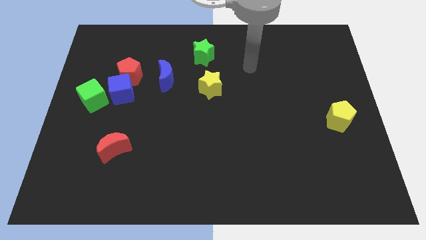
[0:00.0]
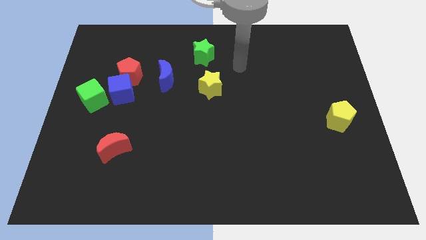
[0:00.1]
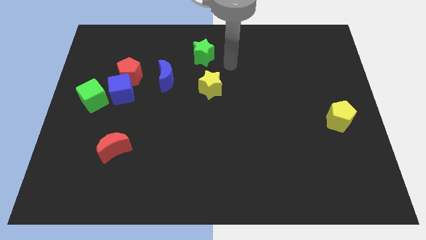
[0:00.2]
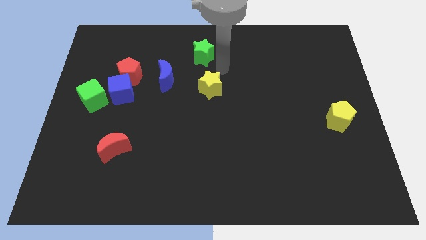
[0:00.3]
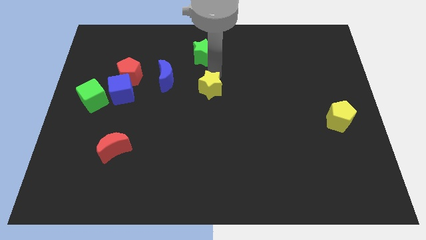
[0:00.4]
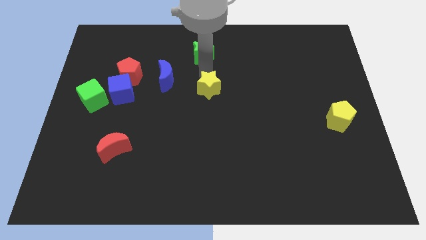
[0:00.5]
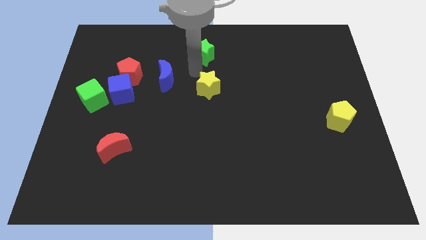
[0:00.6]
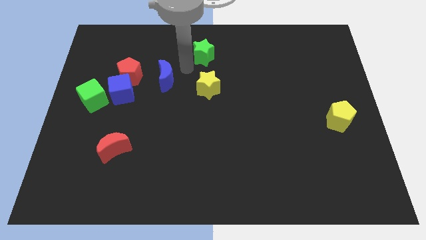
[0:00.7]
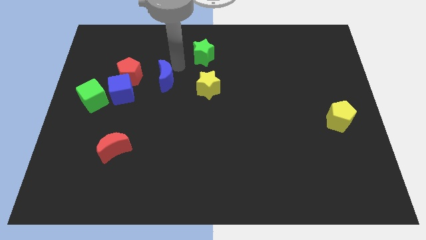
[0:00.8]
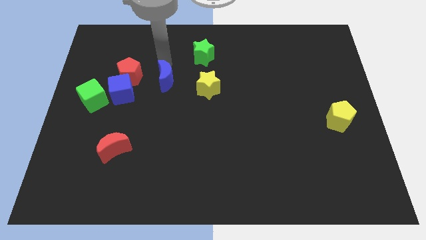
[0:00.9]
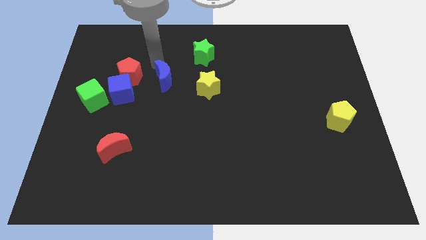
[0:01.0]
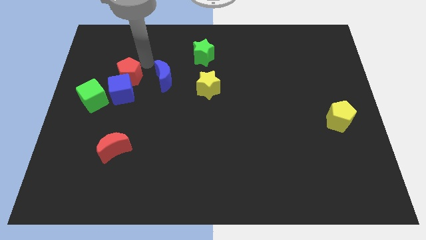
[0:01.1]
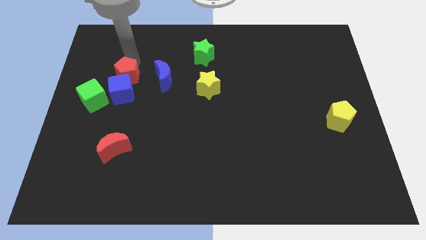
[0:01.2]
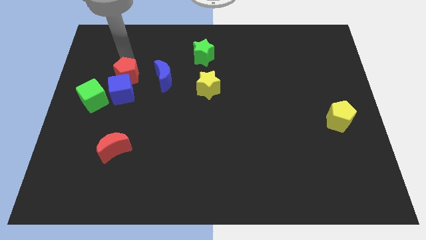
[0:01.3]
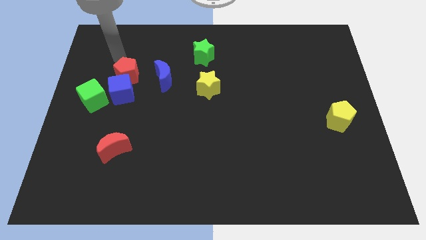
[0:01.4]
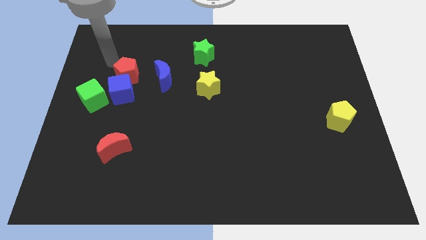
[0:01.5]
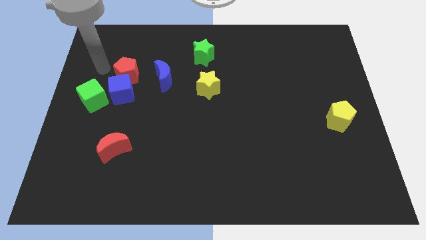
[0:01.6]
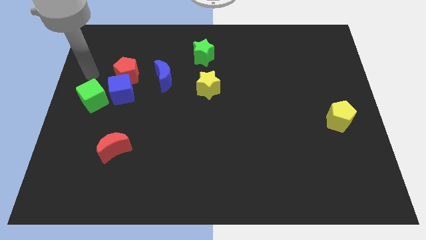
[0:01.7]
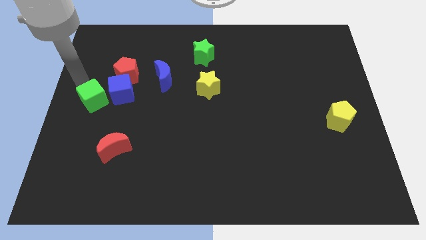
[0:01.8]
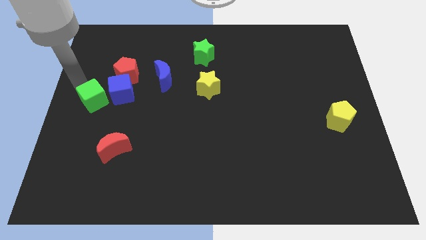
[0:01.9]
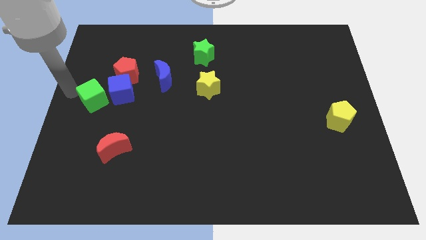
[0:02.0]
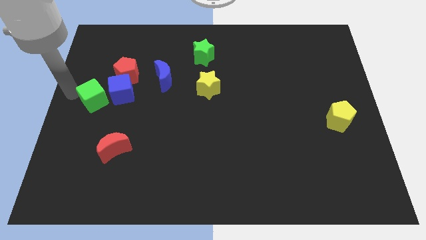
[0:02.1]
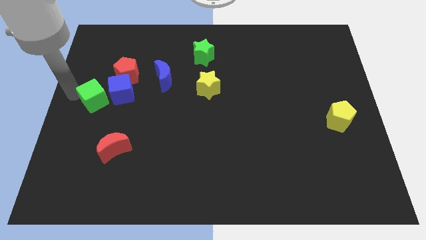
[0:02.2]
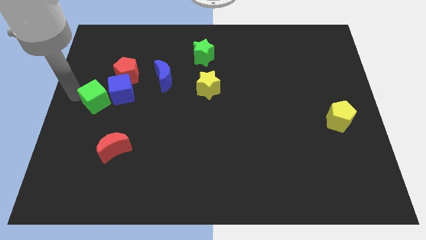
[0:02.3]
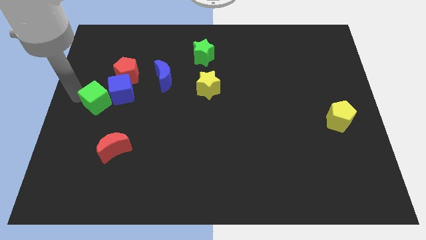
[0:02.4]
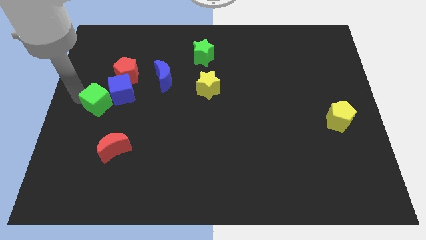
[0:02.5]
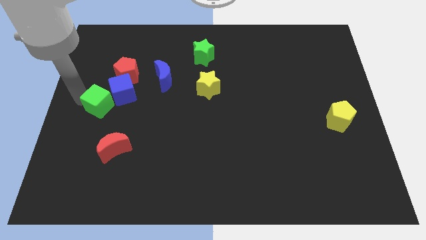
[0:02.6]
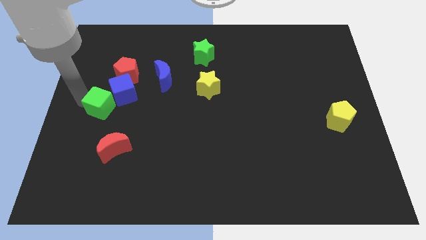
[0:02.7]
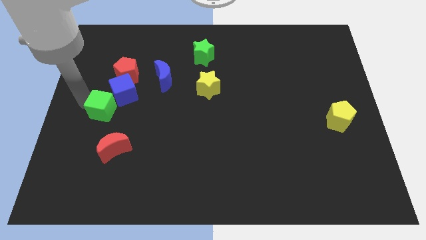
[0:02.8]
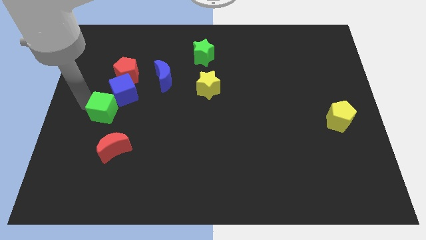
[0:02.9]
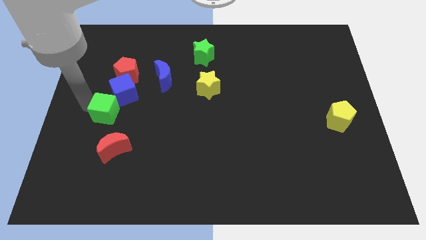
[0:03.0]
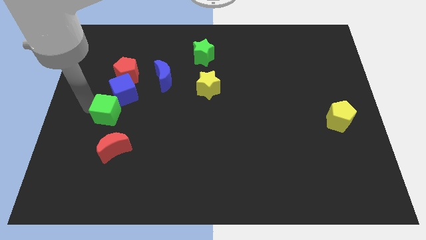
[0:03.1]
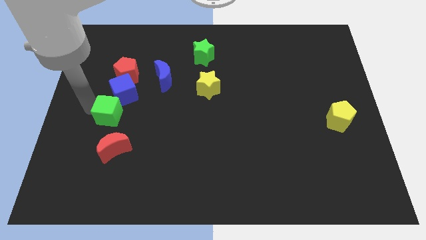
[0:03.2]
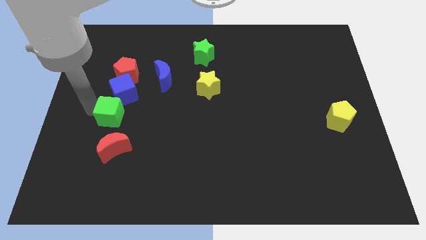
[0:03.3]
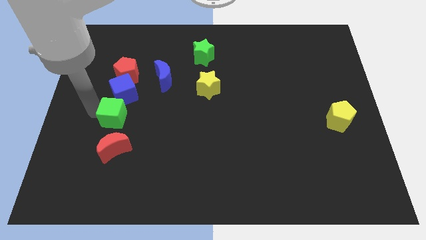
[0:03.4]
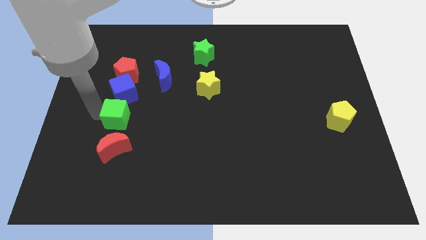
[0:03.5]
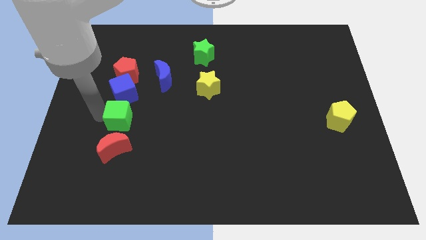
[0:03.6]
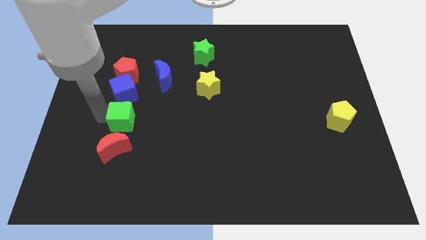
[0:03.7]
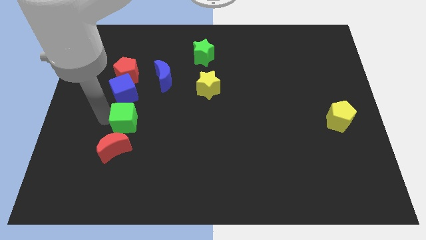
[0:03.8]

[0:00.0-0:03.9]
push the green cube right somewhat

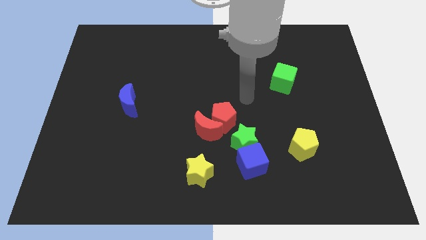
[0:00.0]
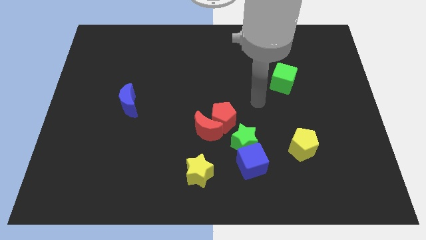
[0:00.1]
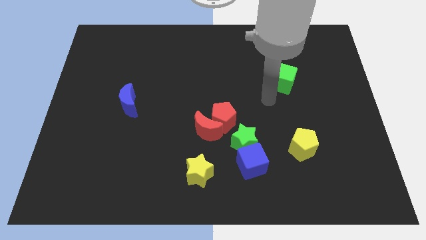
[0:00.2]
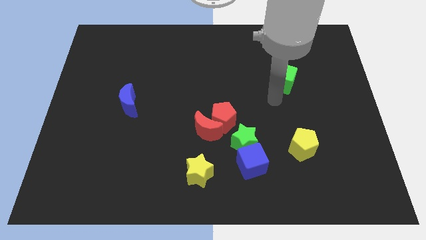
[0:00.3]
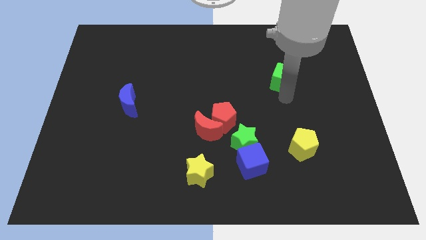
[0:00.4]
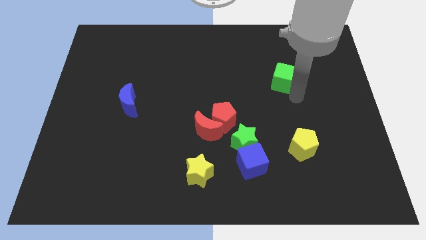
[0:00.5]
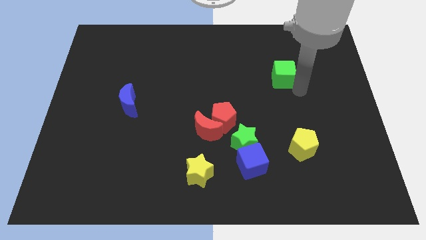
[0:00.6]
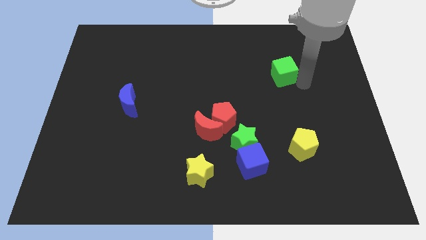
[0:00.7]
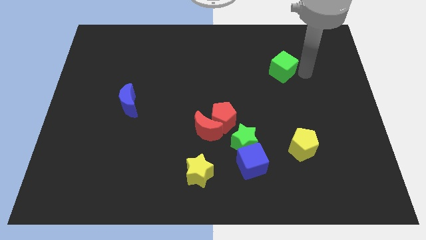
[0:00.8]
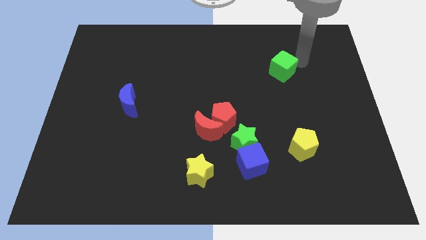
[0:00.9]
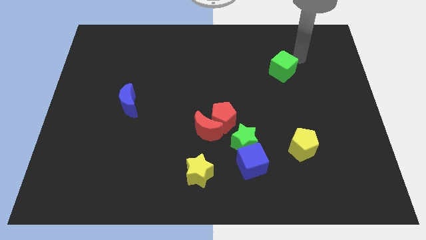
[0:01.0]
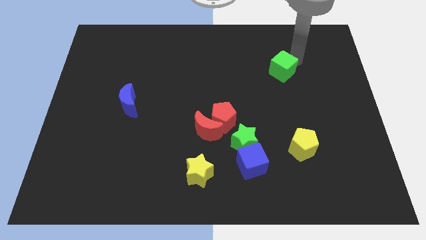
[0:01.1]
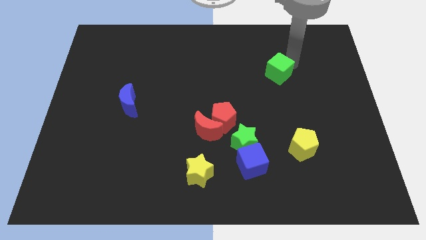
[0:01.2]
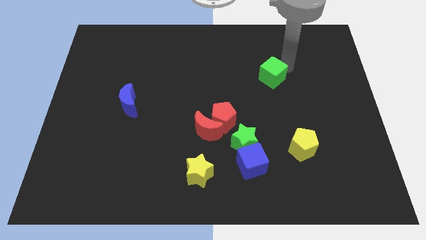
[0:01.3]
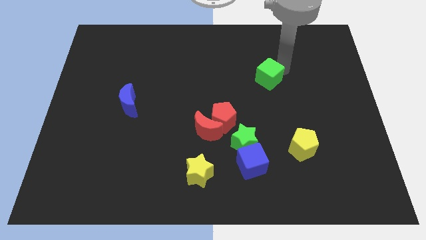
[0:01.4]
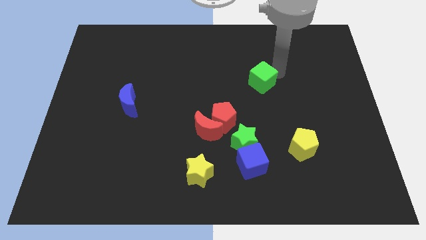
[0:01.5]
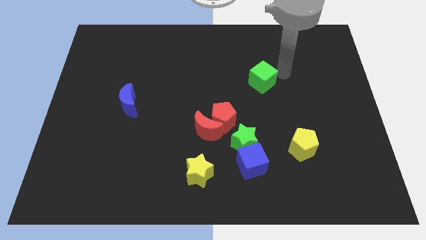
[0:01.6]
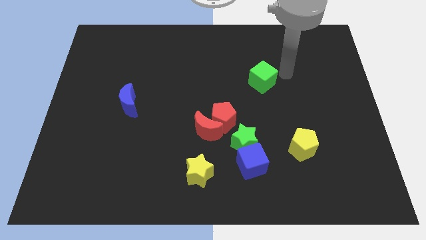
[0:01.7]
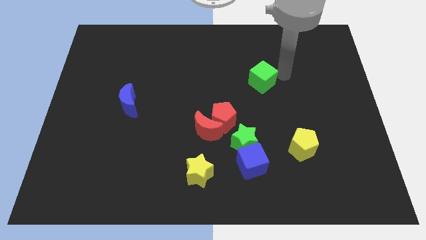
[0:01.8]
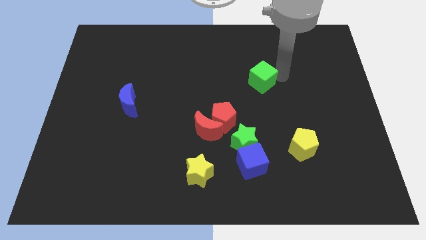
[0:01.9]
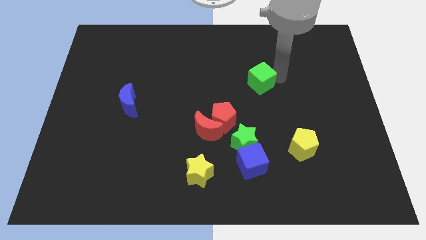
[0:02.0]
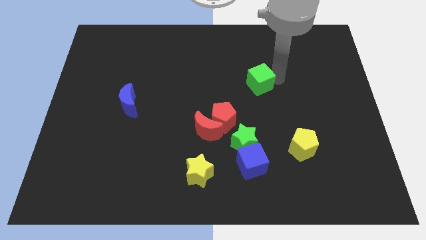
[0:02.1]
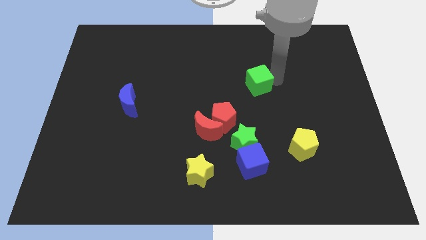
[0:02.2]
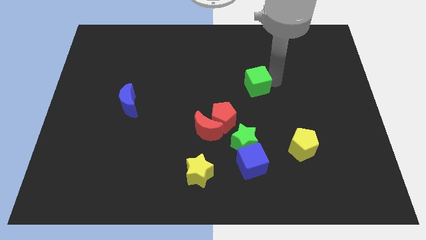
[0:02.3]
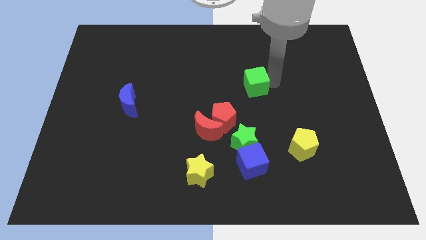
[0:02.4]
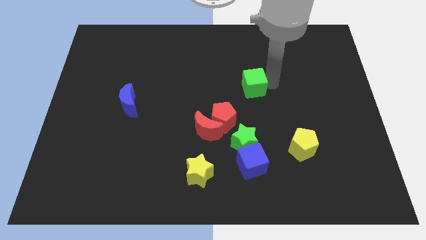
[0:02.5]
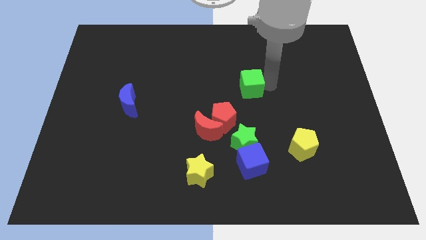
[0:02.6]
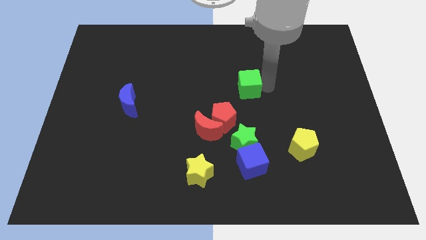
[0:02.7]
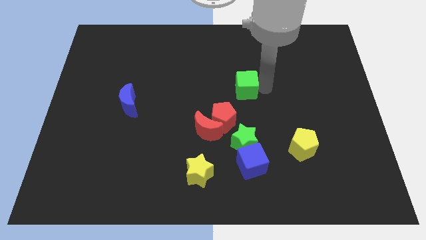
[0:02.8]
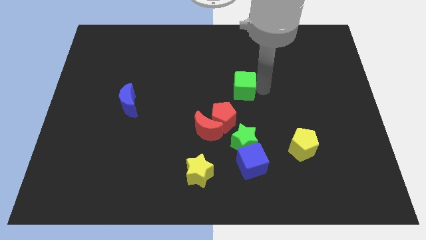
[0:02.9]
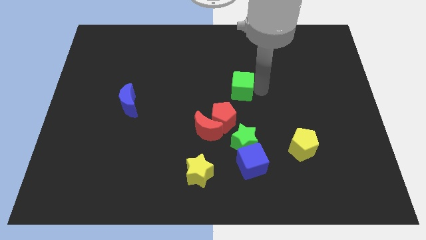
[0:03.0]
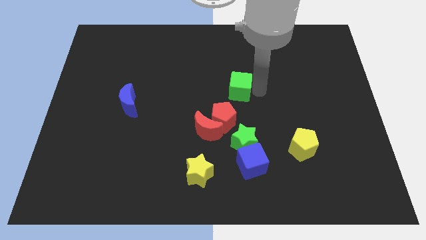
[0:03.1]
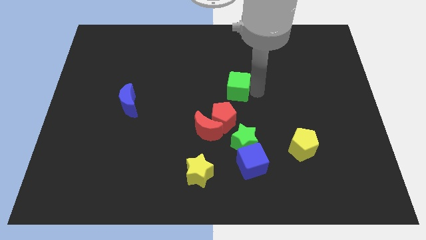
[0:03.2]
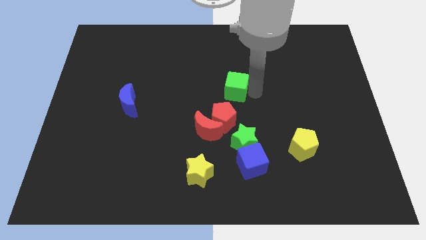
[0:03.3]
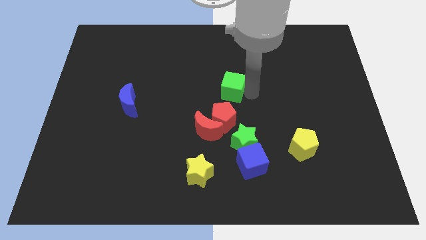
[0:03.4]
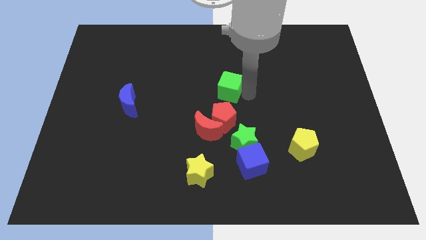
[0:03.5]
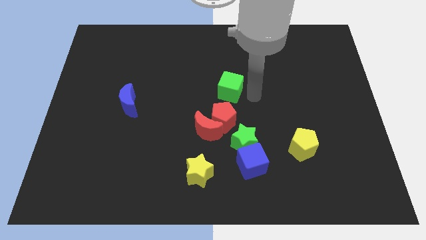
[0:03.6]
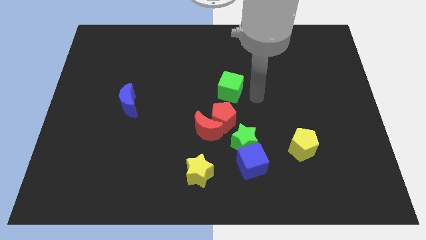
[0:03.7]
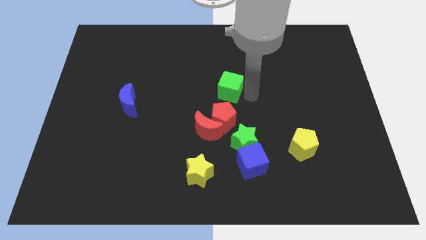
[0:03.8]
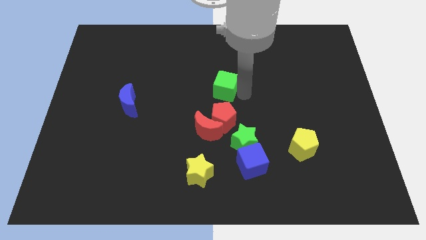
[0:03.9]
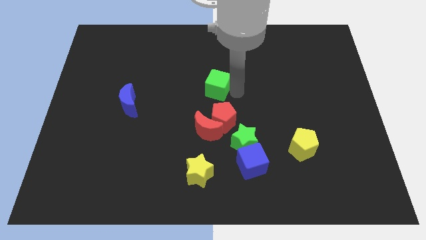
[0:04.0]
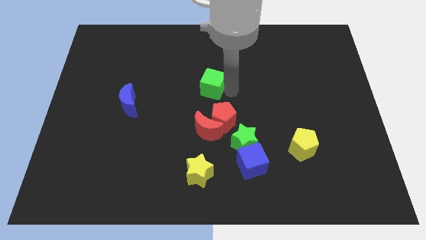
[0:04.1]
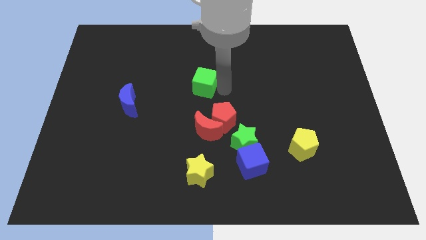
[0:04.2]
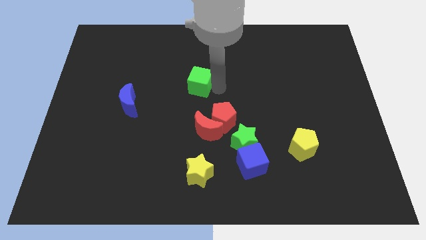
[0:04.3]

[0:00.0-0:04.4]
push the green cube left
